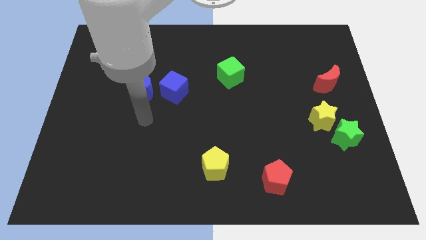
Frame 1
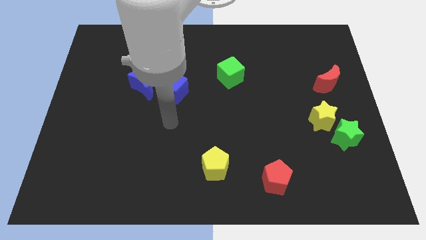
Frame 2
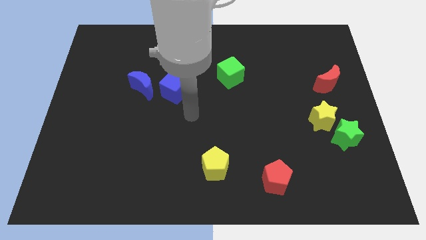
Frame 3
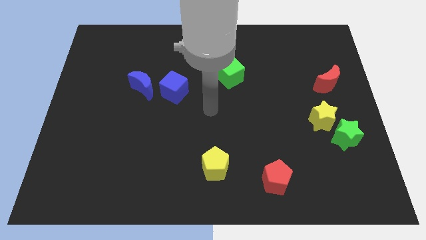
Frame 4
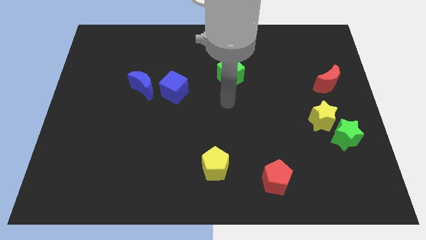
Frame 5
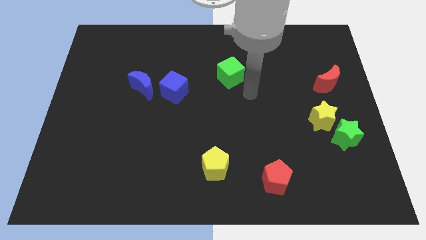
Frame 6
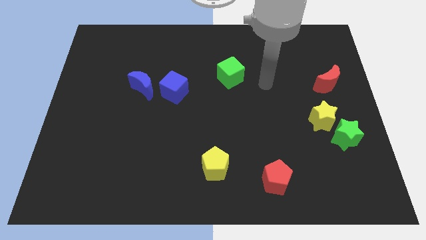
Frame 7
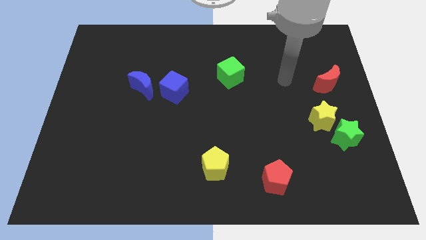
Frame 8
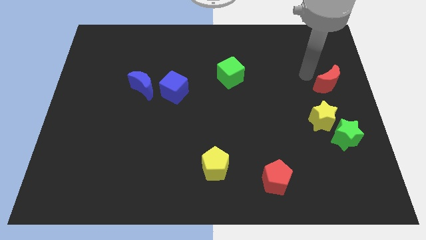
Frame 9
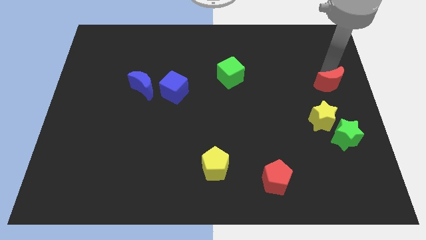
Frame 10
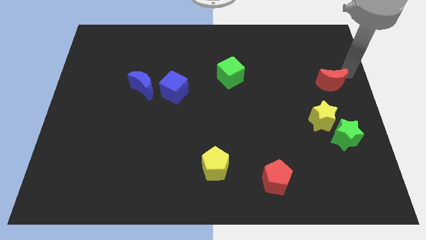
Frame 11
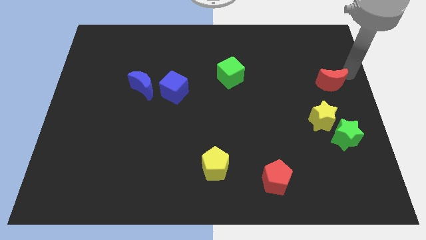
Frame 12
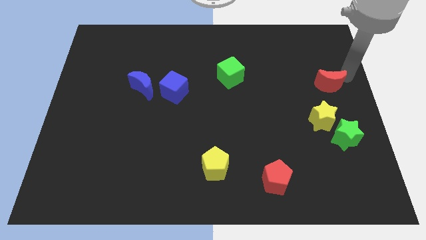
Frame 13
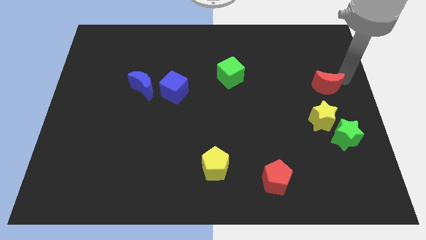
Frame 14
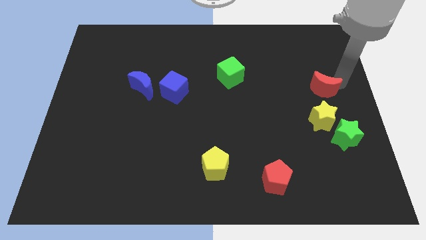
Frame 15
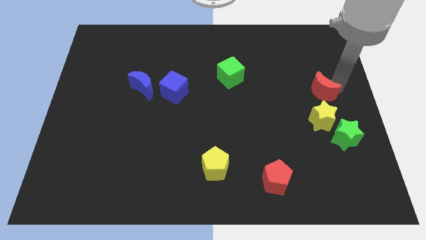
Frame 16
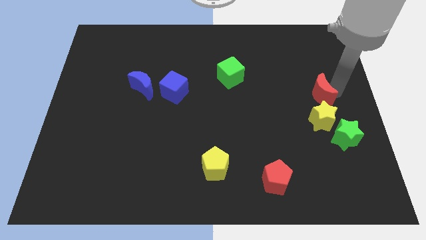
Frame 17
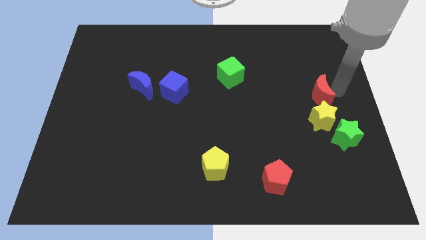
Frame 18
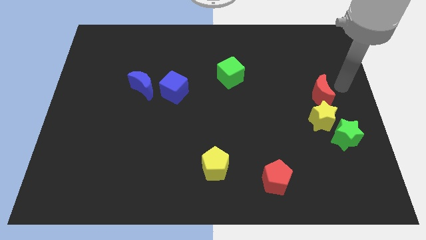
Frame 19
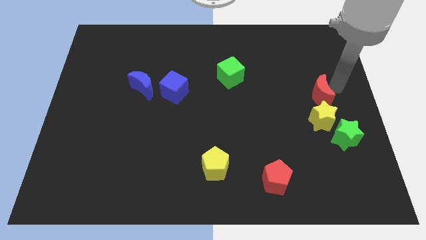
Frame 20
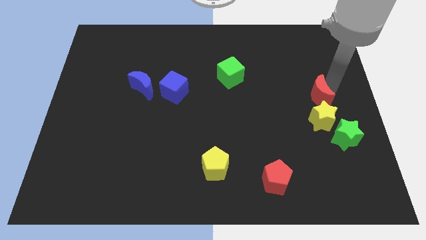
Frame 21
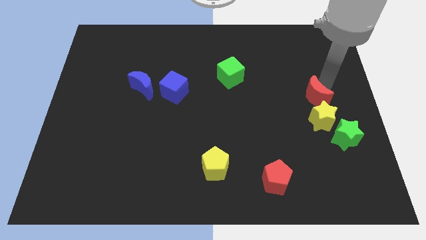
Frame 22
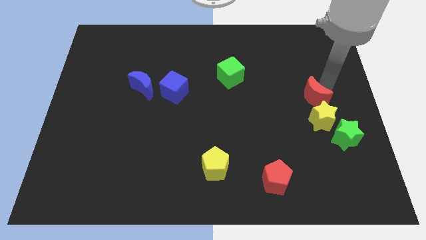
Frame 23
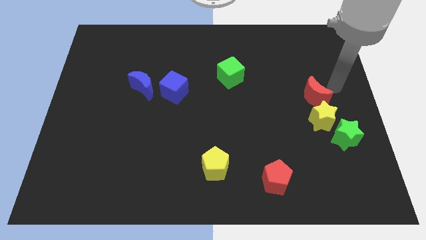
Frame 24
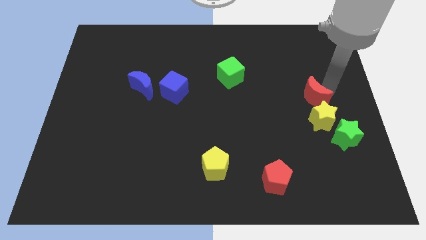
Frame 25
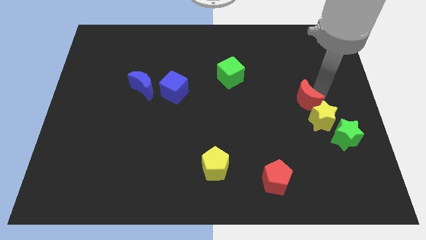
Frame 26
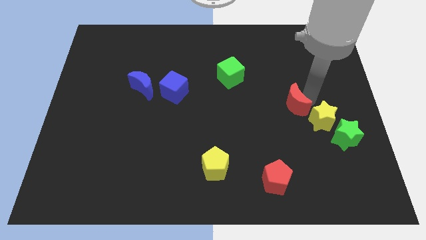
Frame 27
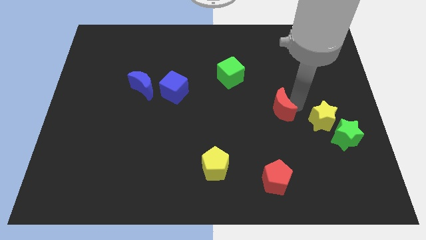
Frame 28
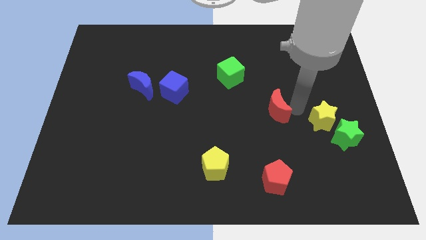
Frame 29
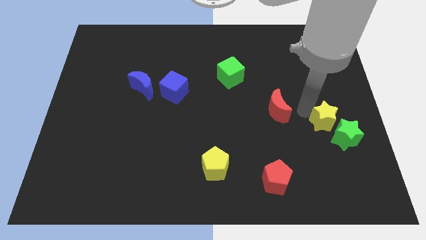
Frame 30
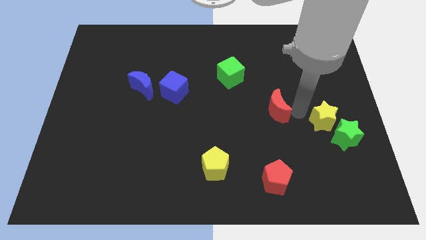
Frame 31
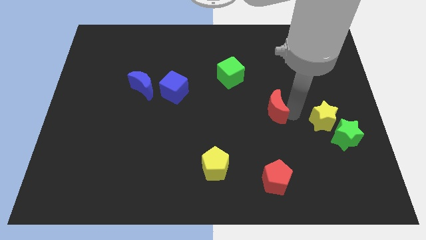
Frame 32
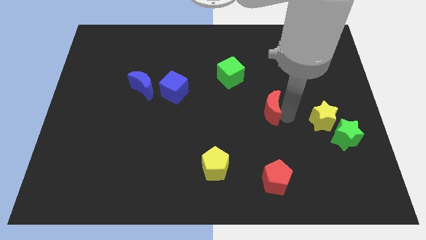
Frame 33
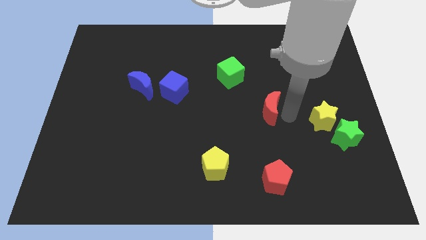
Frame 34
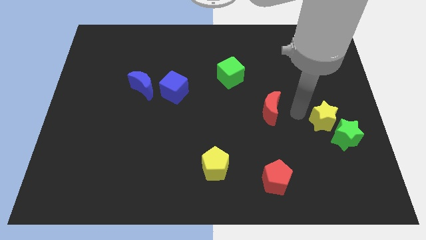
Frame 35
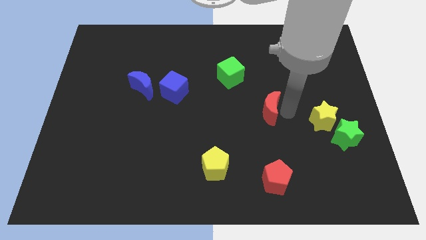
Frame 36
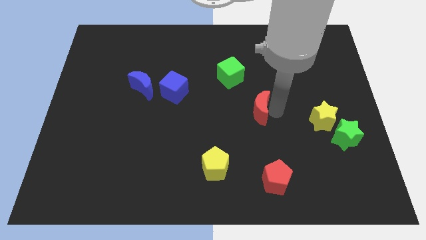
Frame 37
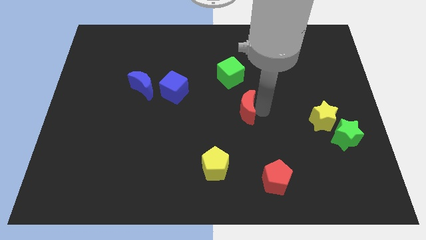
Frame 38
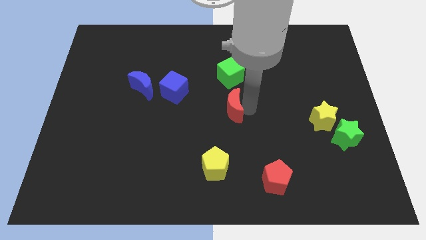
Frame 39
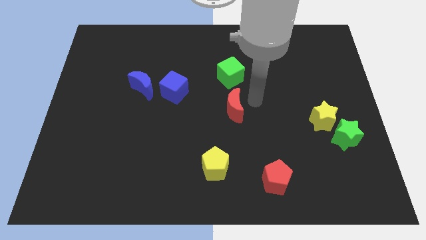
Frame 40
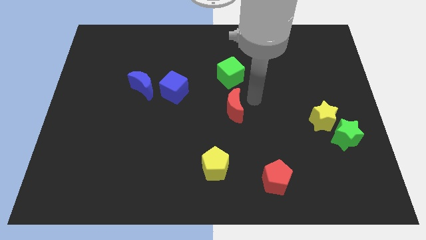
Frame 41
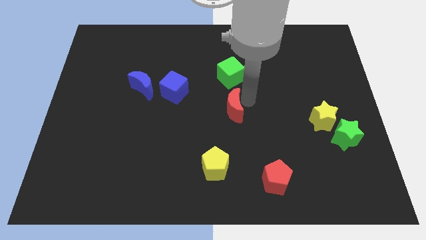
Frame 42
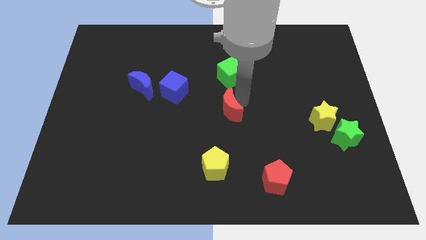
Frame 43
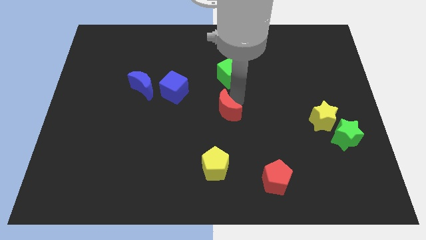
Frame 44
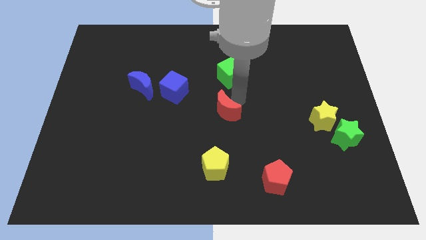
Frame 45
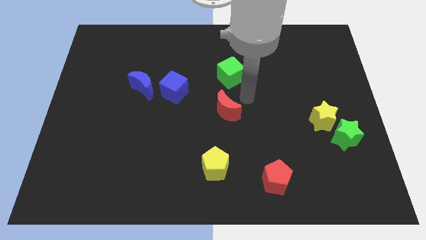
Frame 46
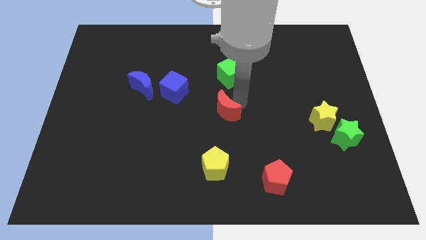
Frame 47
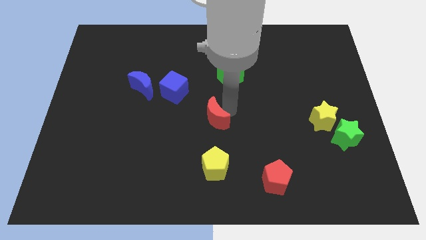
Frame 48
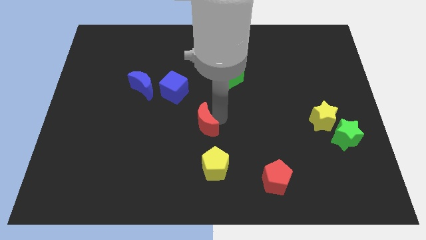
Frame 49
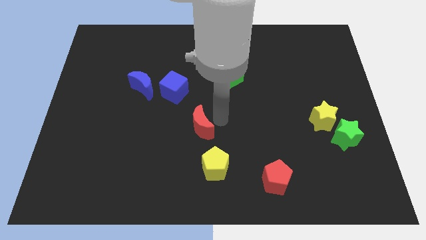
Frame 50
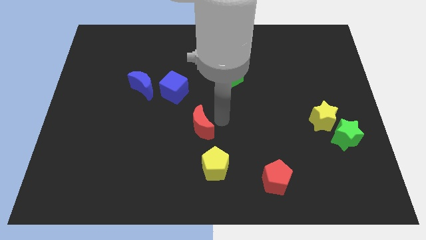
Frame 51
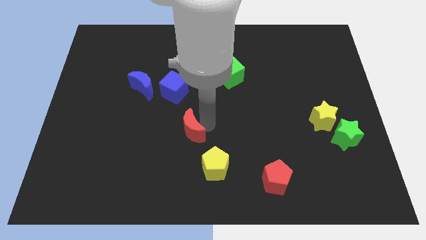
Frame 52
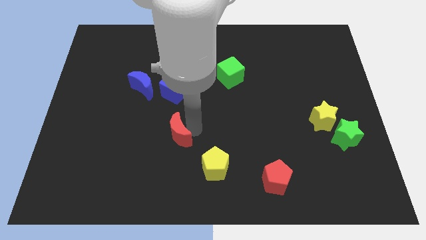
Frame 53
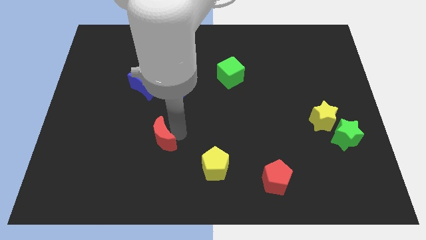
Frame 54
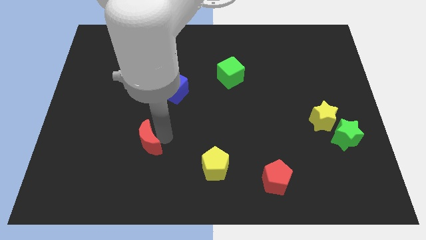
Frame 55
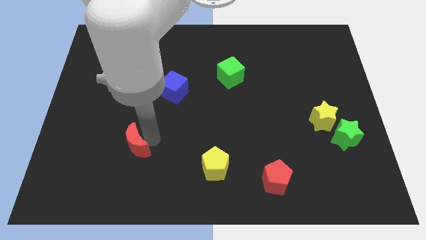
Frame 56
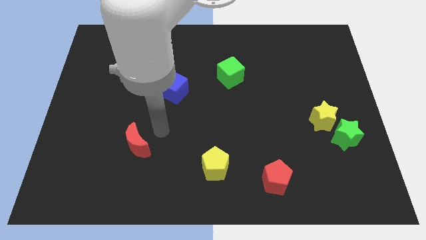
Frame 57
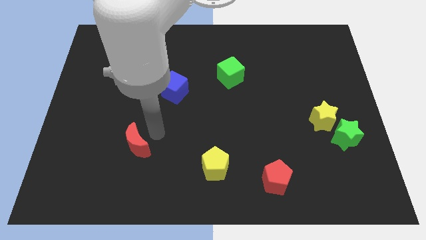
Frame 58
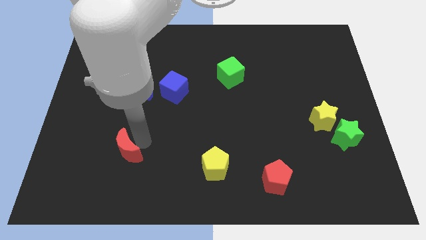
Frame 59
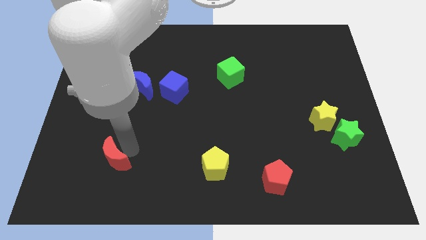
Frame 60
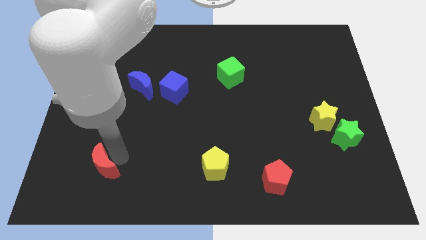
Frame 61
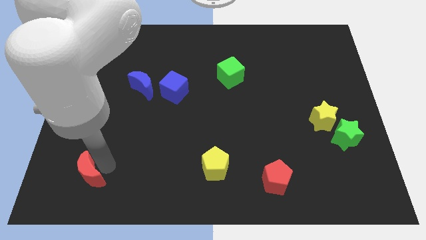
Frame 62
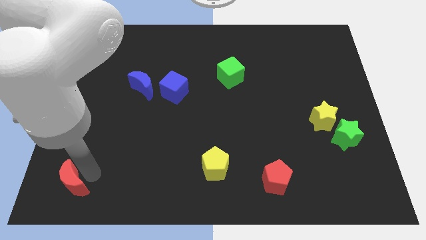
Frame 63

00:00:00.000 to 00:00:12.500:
slide the red moon to the bottom left
